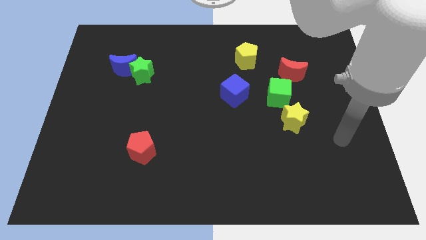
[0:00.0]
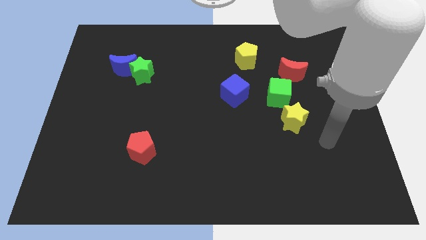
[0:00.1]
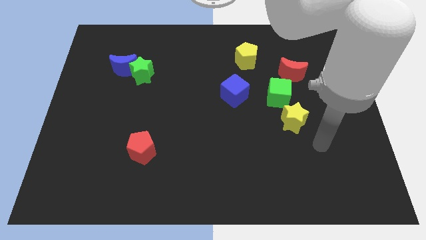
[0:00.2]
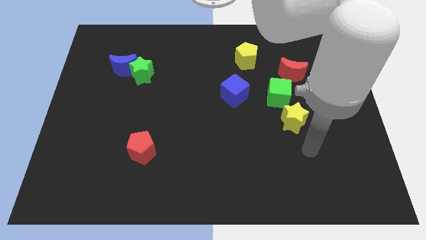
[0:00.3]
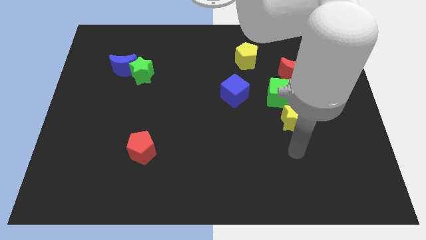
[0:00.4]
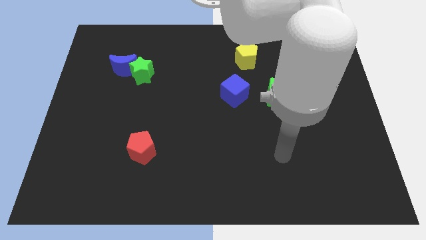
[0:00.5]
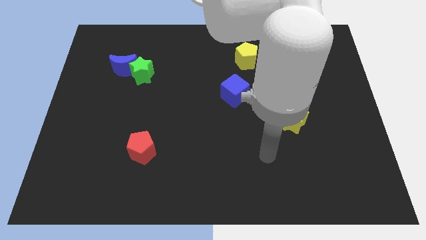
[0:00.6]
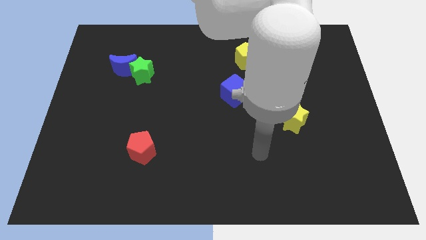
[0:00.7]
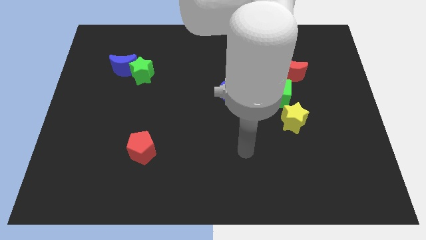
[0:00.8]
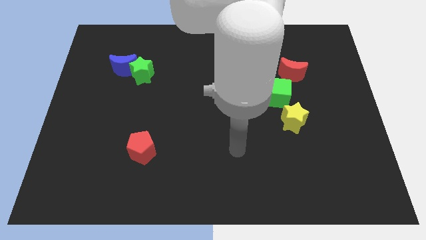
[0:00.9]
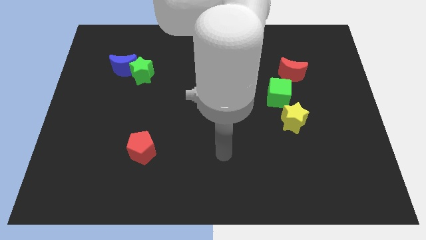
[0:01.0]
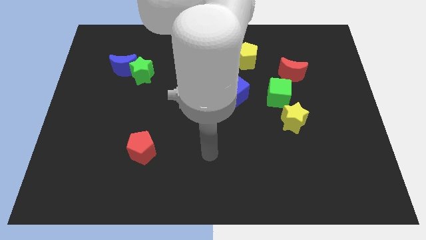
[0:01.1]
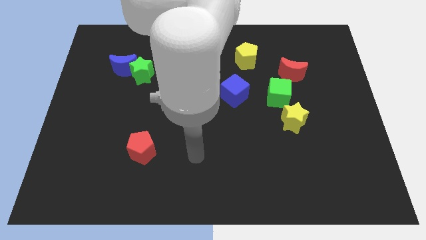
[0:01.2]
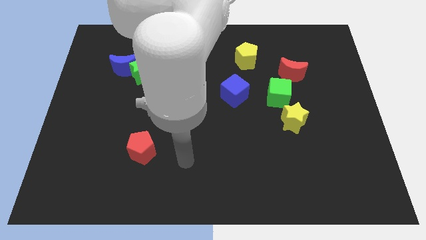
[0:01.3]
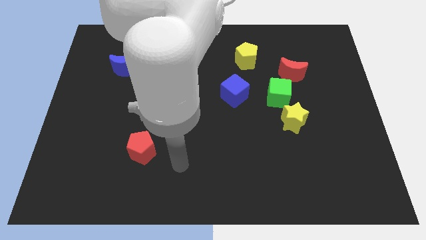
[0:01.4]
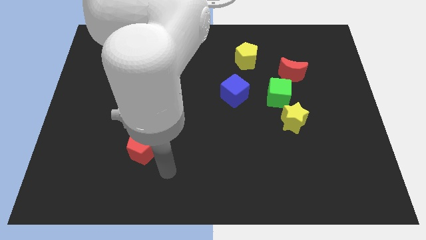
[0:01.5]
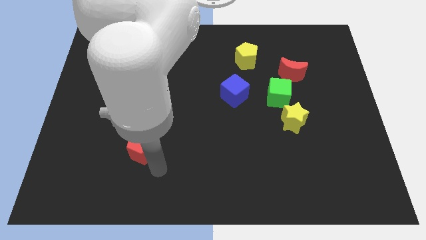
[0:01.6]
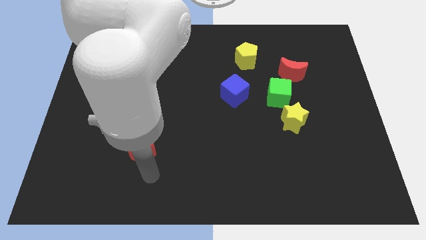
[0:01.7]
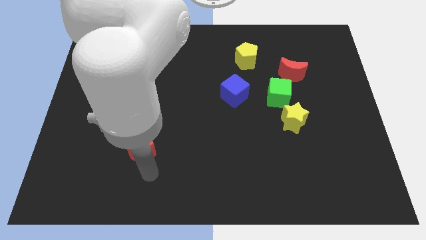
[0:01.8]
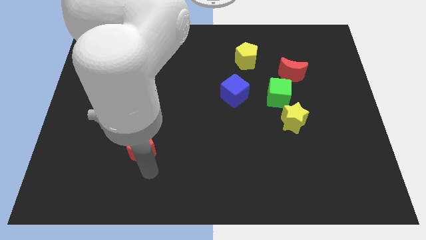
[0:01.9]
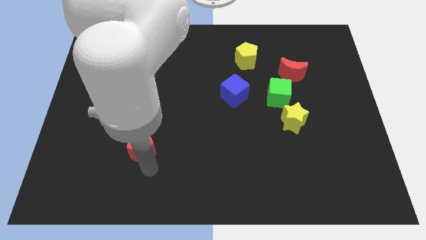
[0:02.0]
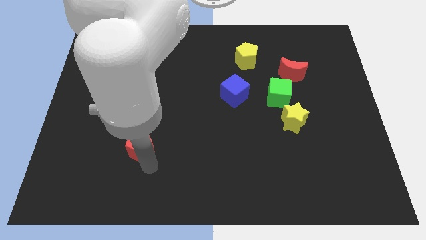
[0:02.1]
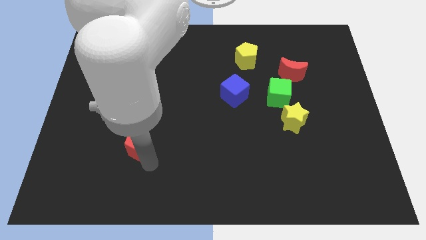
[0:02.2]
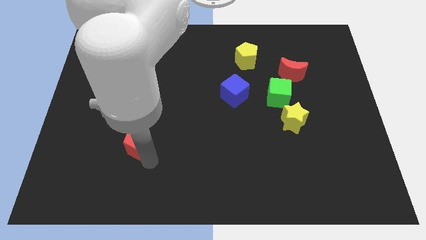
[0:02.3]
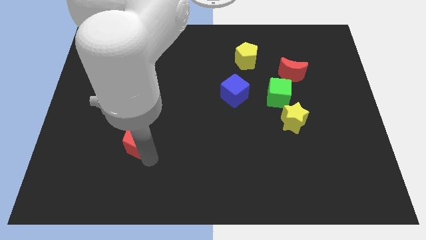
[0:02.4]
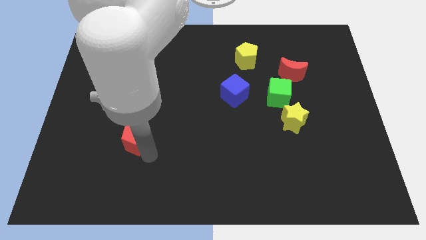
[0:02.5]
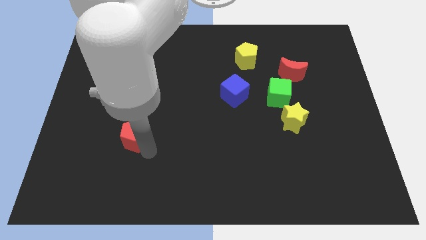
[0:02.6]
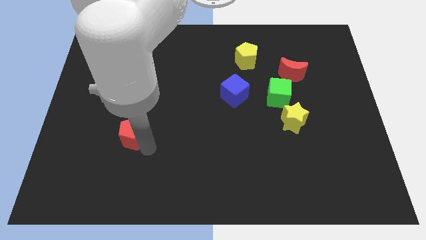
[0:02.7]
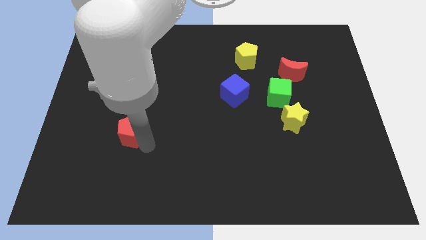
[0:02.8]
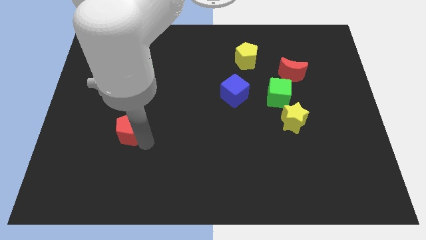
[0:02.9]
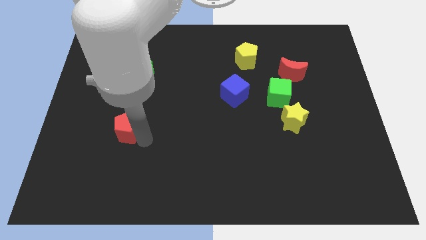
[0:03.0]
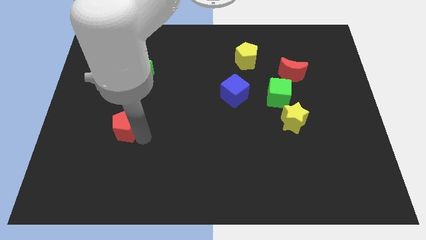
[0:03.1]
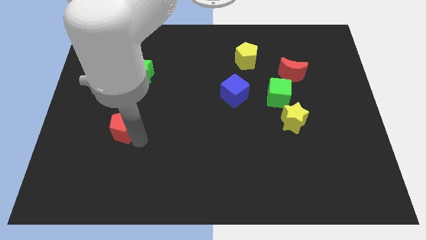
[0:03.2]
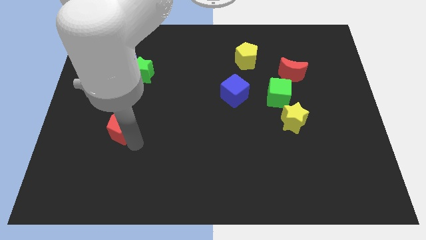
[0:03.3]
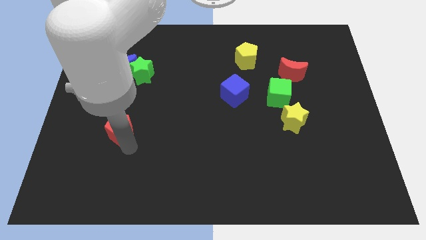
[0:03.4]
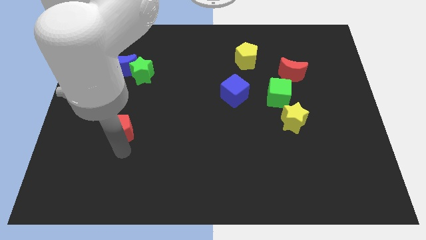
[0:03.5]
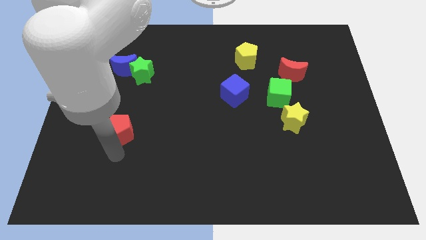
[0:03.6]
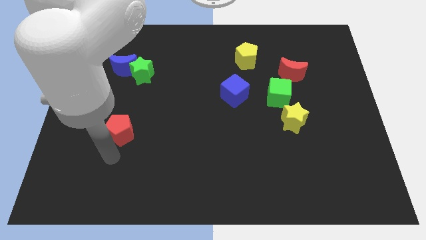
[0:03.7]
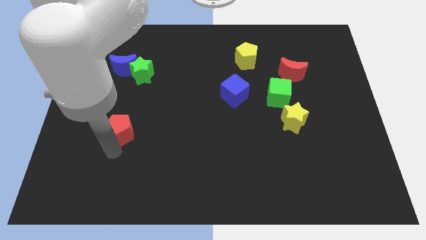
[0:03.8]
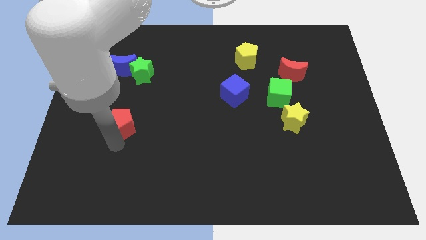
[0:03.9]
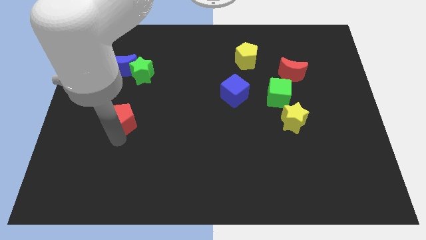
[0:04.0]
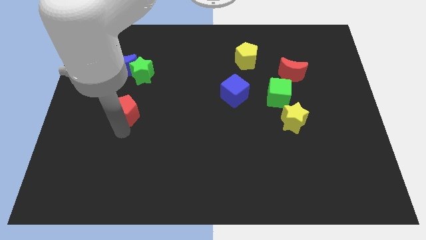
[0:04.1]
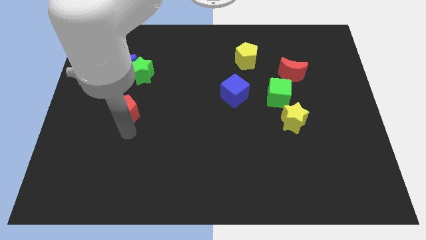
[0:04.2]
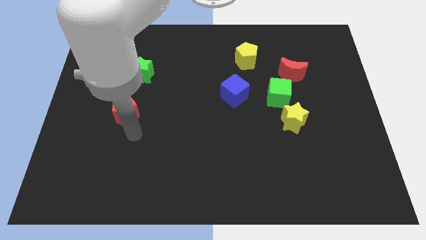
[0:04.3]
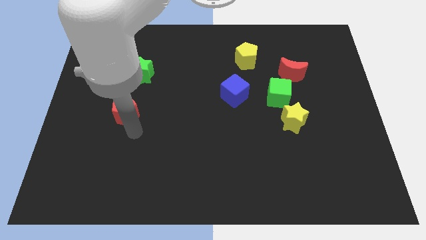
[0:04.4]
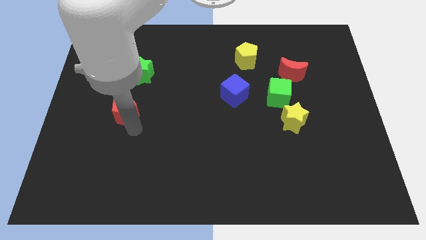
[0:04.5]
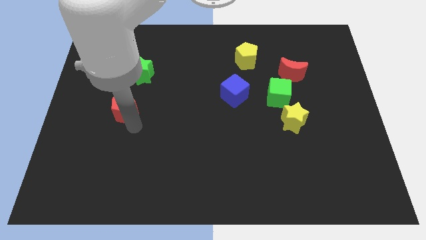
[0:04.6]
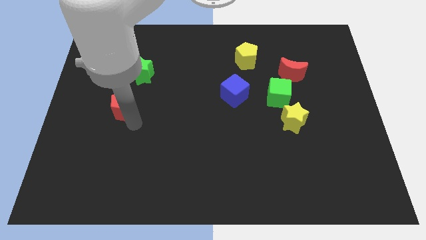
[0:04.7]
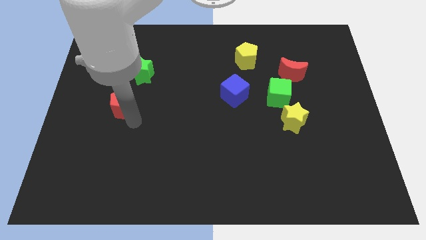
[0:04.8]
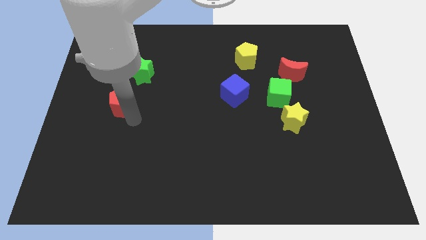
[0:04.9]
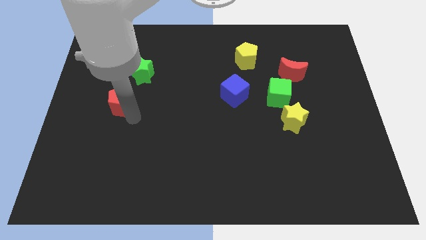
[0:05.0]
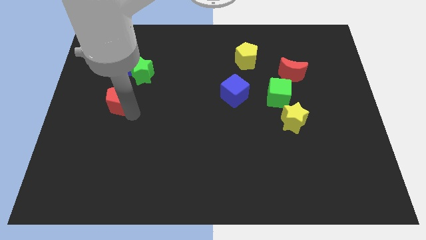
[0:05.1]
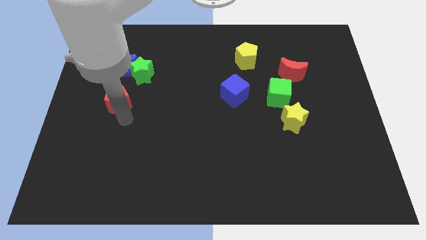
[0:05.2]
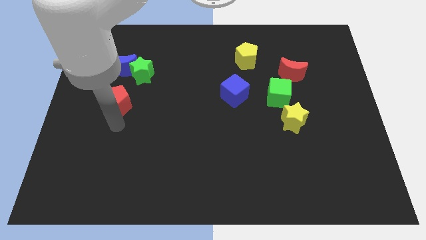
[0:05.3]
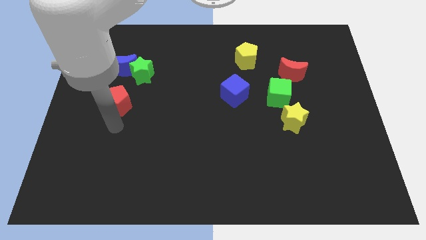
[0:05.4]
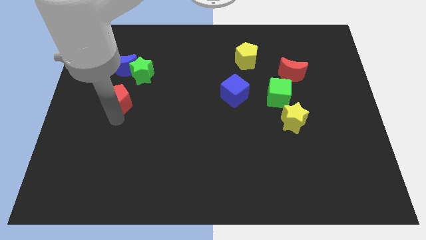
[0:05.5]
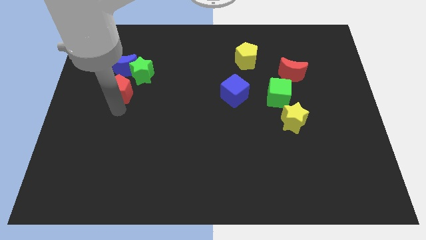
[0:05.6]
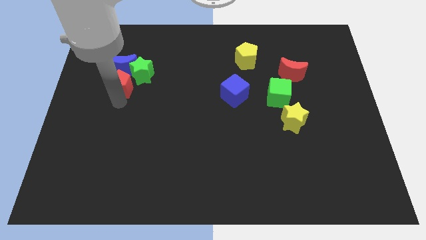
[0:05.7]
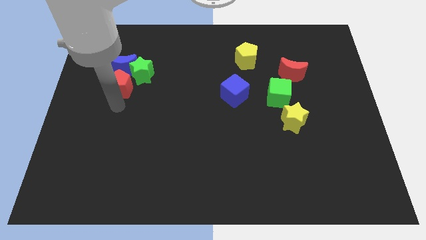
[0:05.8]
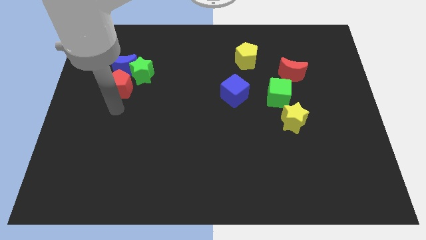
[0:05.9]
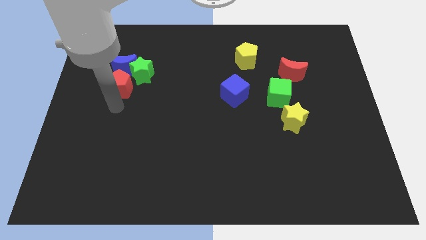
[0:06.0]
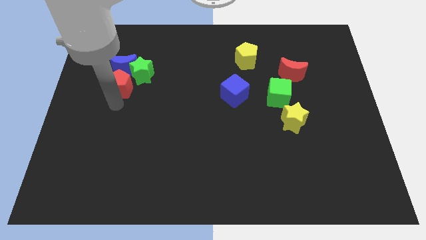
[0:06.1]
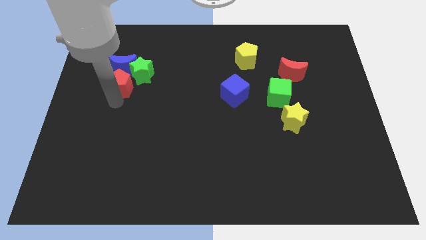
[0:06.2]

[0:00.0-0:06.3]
put the red pentagon close to the blue moon

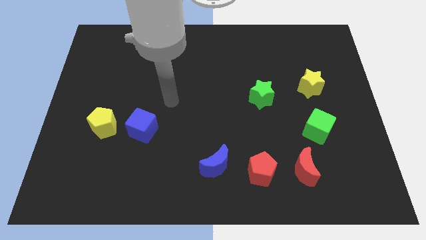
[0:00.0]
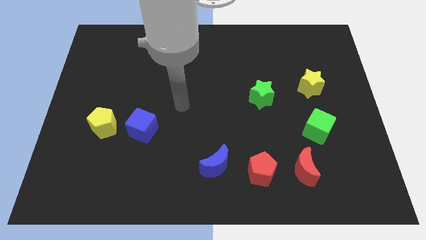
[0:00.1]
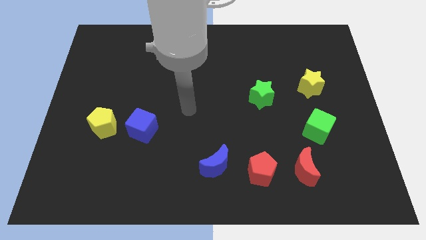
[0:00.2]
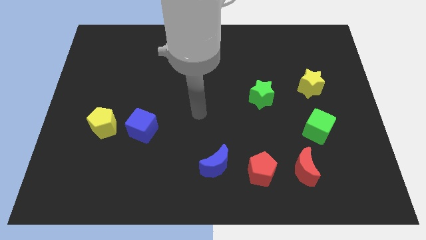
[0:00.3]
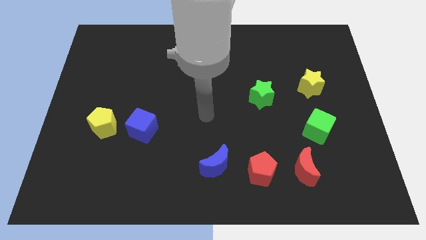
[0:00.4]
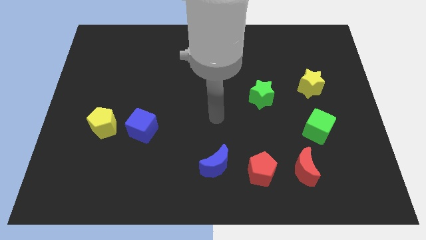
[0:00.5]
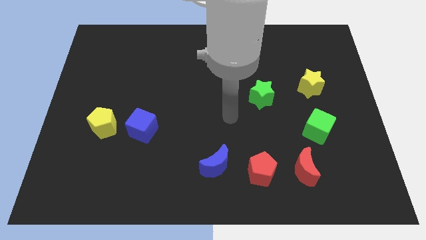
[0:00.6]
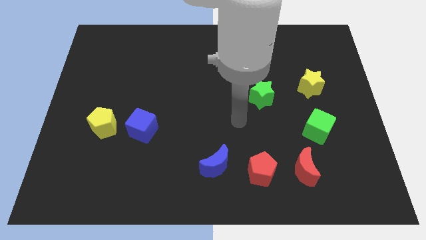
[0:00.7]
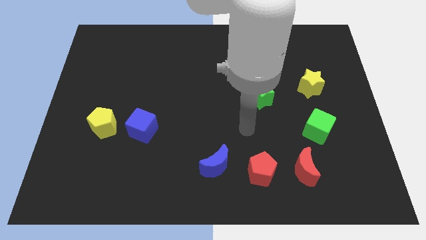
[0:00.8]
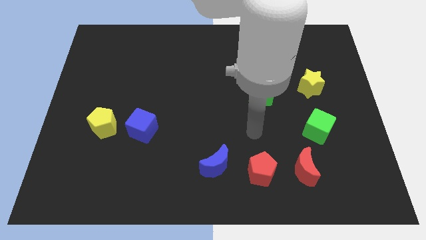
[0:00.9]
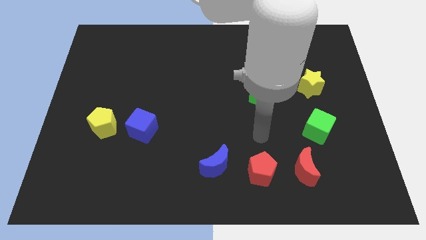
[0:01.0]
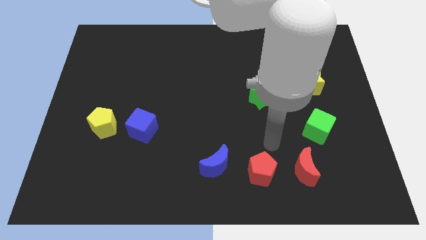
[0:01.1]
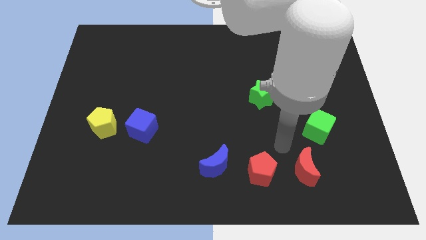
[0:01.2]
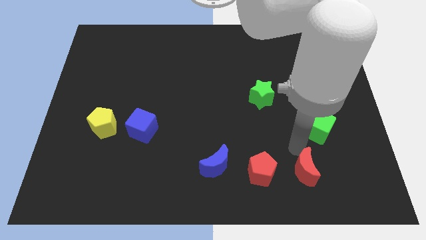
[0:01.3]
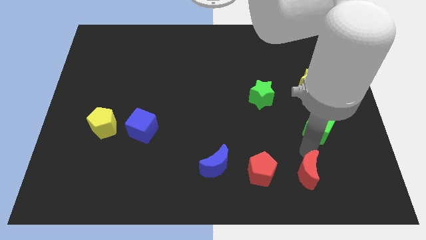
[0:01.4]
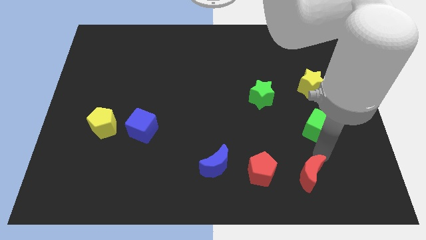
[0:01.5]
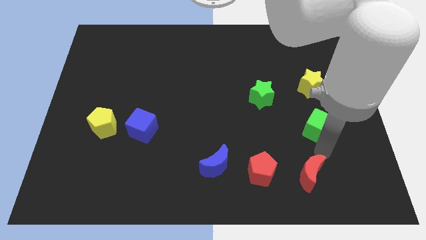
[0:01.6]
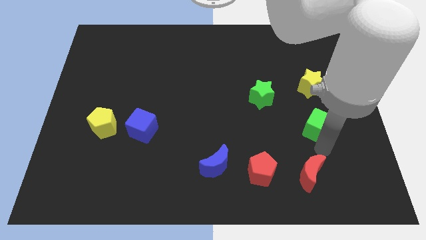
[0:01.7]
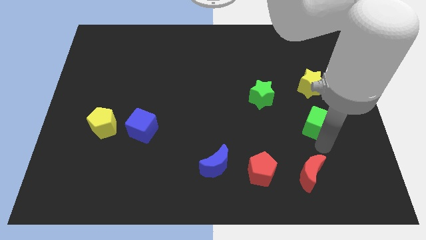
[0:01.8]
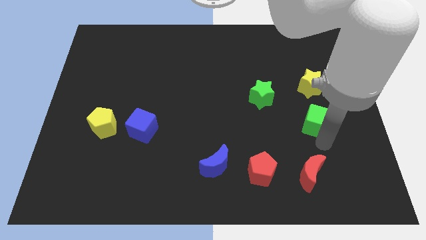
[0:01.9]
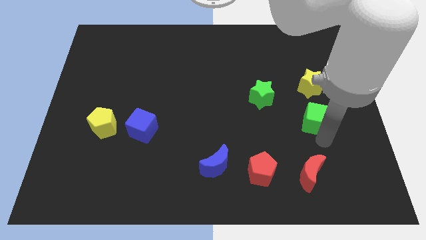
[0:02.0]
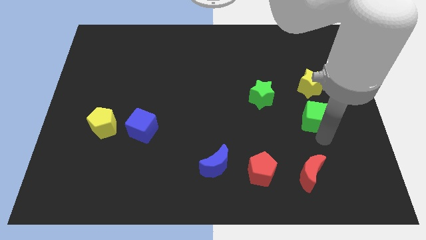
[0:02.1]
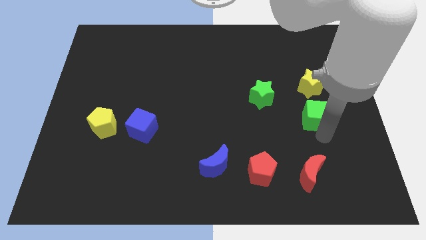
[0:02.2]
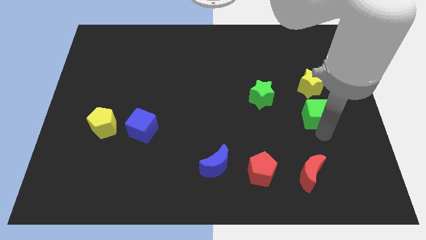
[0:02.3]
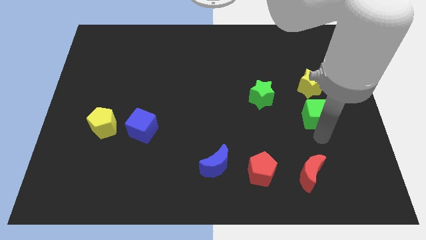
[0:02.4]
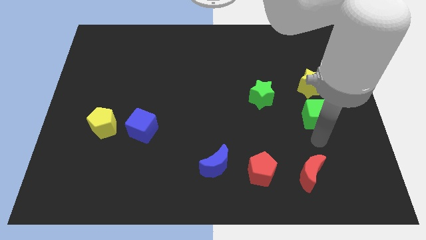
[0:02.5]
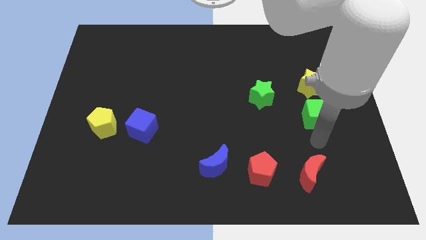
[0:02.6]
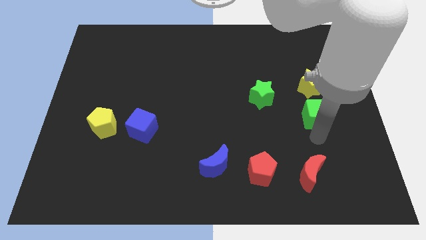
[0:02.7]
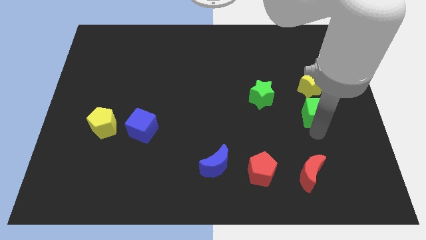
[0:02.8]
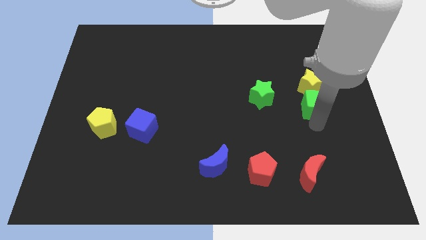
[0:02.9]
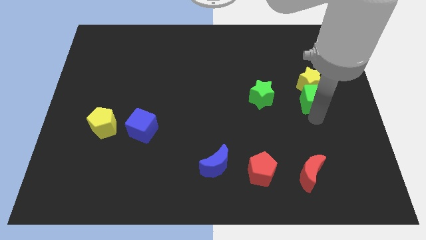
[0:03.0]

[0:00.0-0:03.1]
put the green cube close to the yellow star
